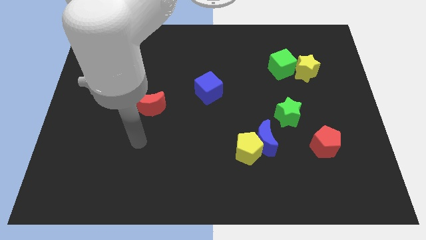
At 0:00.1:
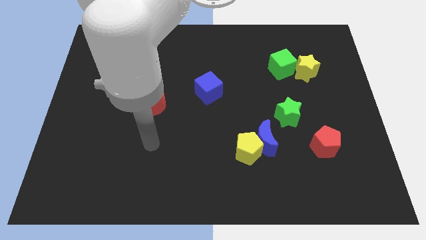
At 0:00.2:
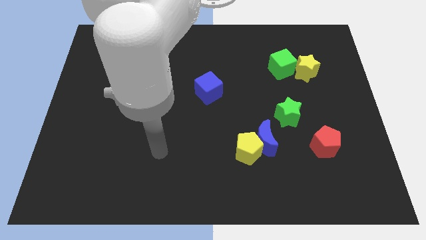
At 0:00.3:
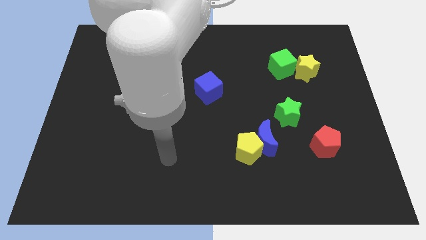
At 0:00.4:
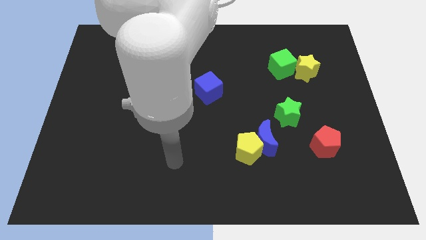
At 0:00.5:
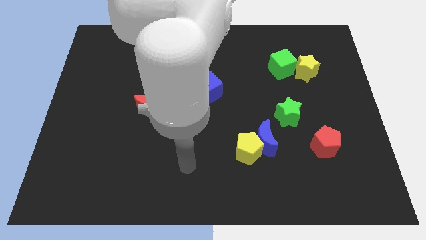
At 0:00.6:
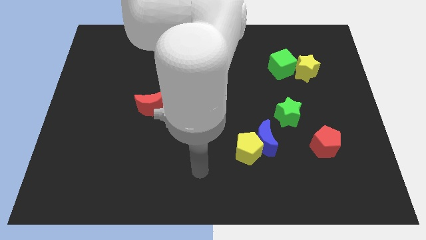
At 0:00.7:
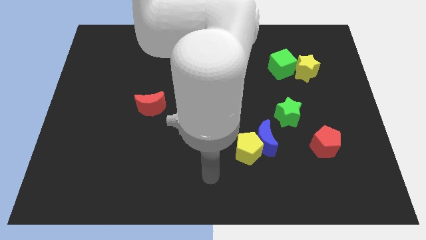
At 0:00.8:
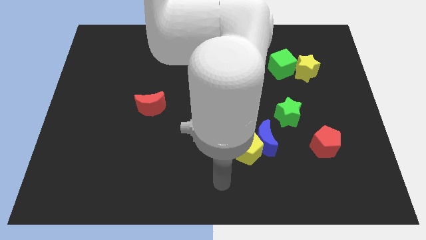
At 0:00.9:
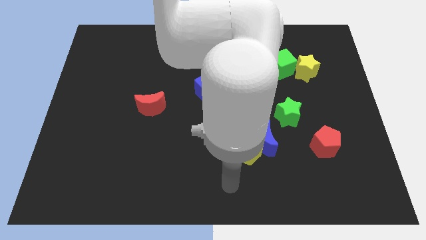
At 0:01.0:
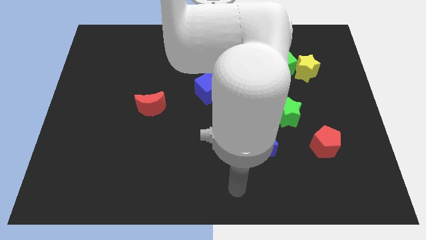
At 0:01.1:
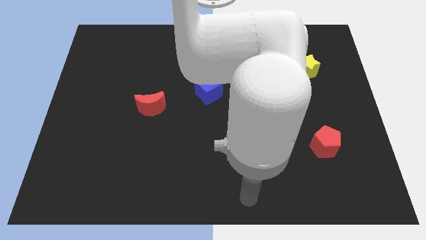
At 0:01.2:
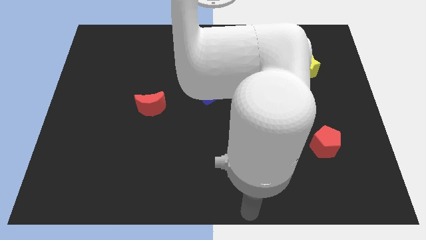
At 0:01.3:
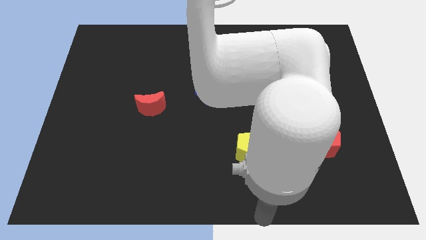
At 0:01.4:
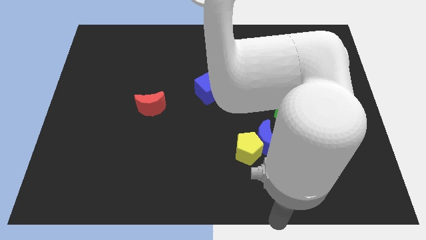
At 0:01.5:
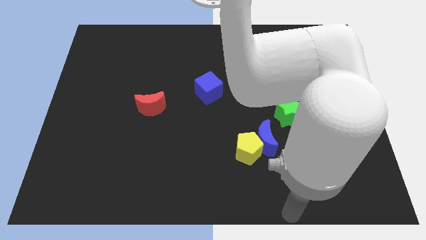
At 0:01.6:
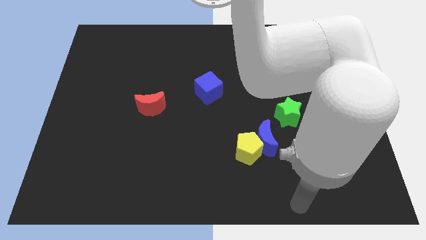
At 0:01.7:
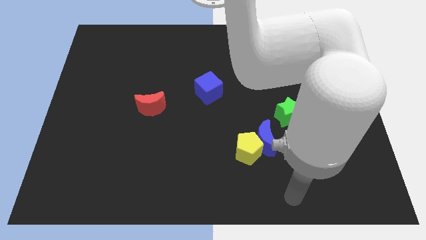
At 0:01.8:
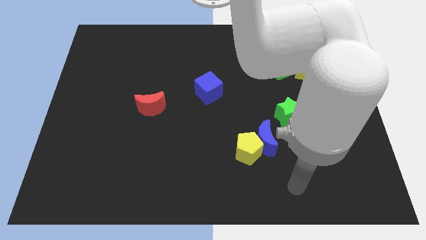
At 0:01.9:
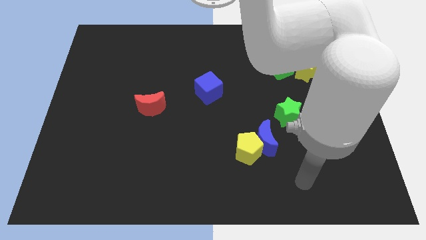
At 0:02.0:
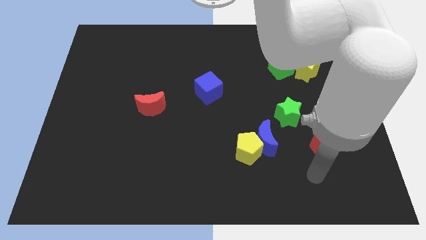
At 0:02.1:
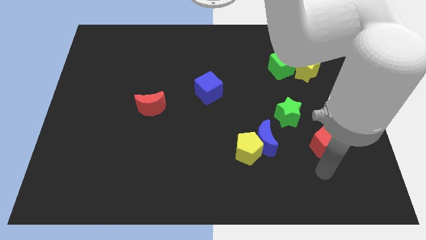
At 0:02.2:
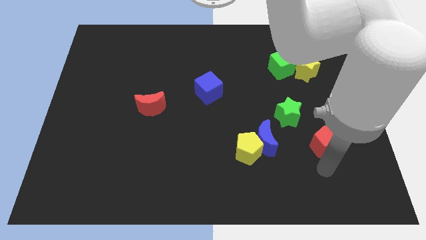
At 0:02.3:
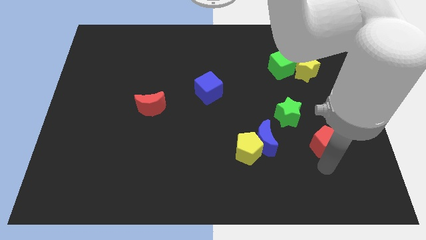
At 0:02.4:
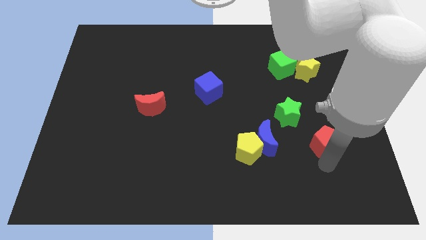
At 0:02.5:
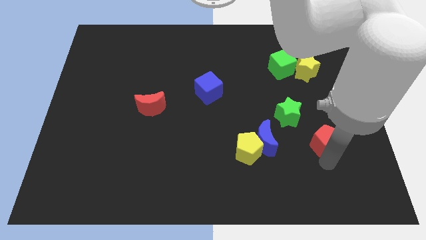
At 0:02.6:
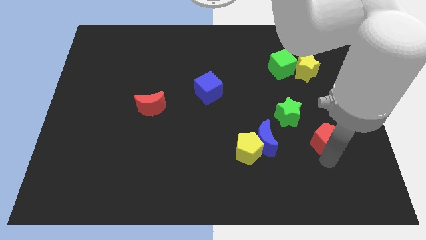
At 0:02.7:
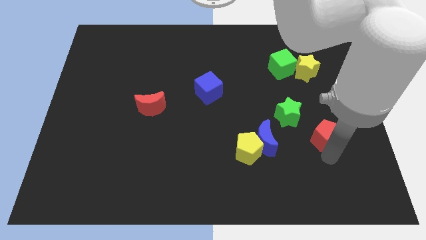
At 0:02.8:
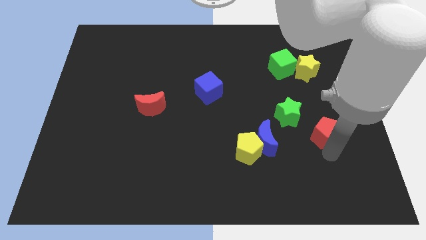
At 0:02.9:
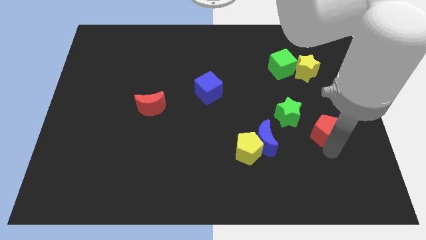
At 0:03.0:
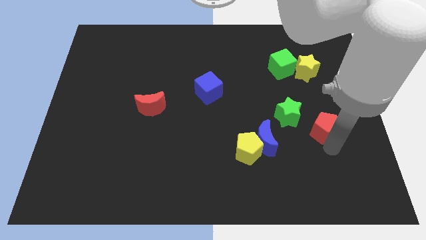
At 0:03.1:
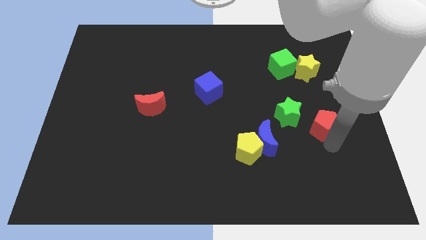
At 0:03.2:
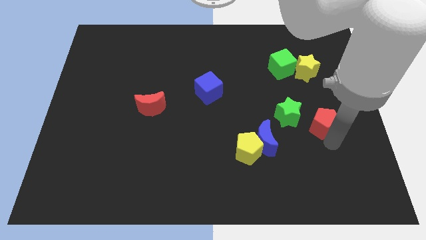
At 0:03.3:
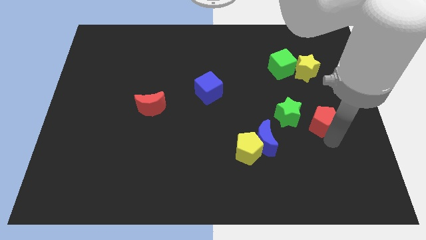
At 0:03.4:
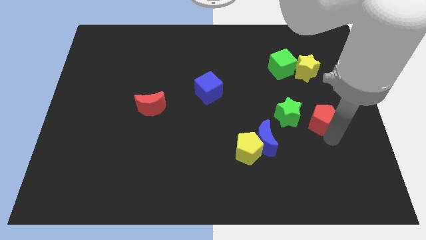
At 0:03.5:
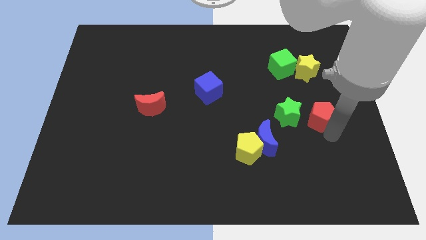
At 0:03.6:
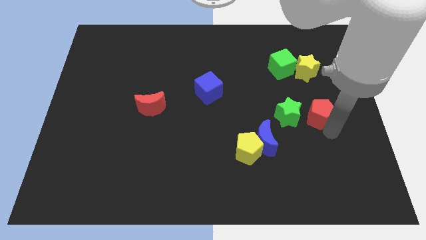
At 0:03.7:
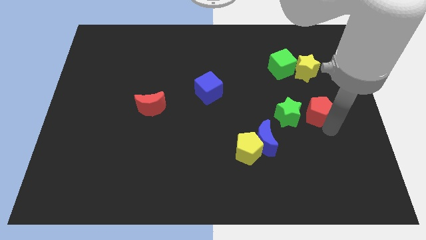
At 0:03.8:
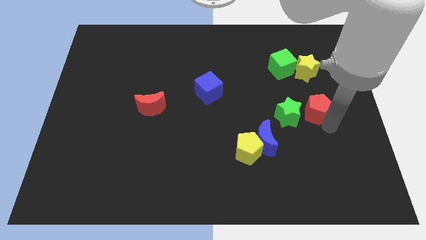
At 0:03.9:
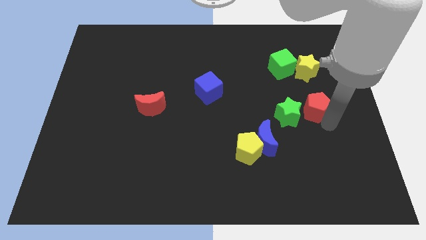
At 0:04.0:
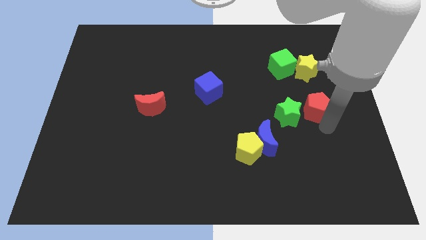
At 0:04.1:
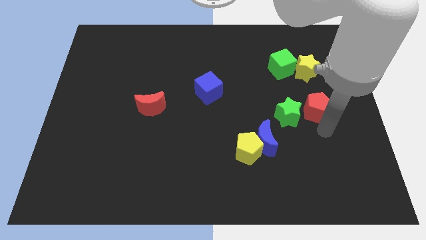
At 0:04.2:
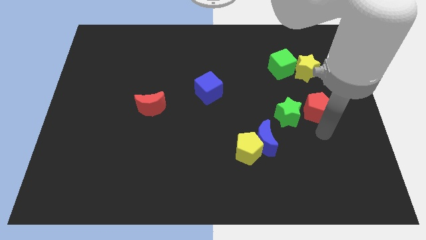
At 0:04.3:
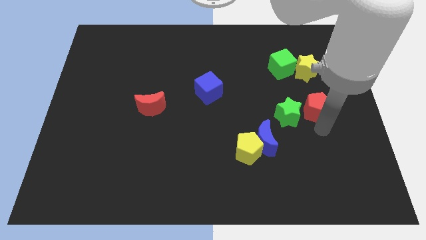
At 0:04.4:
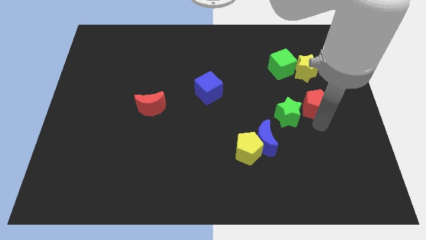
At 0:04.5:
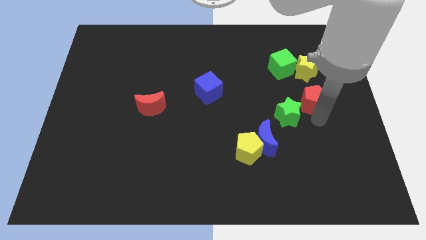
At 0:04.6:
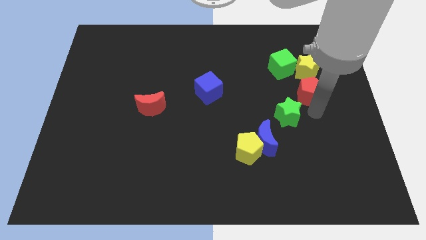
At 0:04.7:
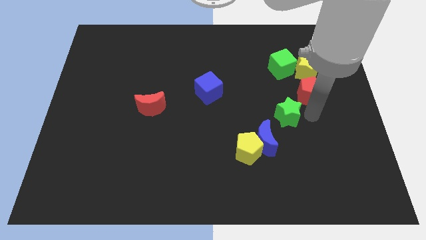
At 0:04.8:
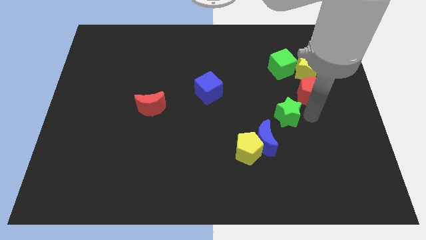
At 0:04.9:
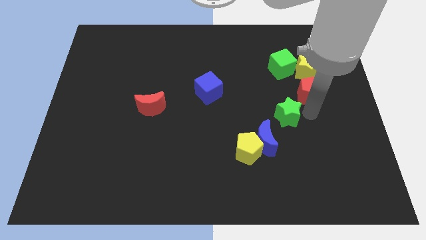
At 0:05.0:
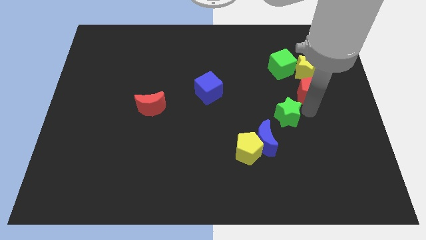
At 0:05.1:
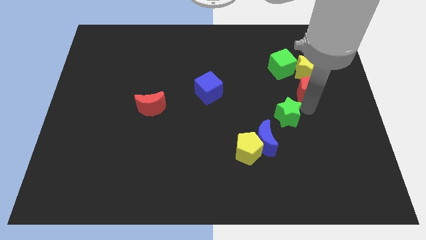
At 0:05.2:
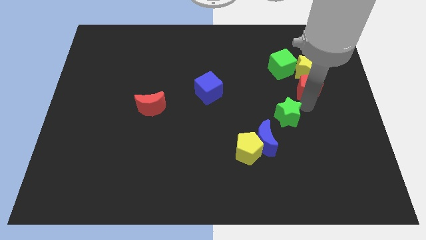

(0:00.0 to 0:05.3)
put the red pentagon next to the yellow star

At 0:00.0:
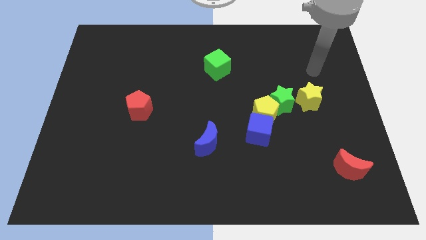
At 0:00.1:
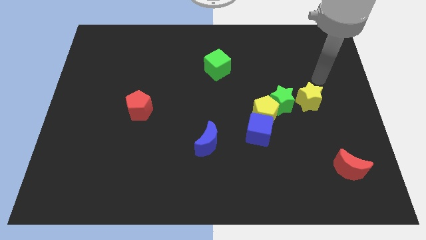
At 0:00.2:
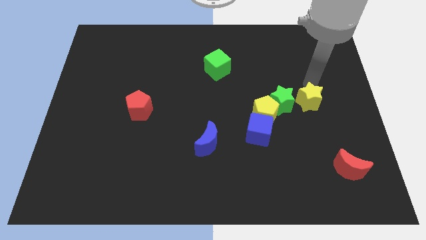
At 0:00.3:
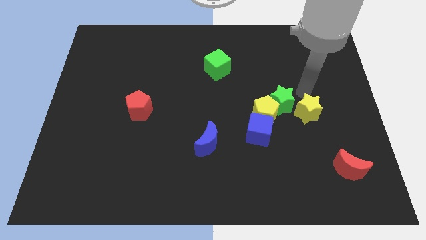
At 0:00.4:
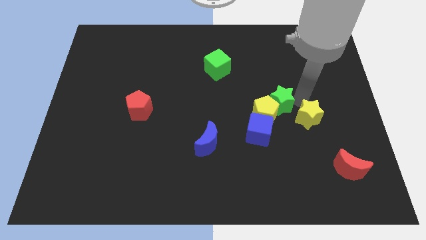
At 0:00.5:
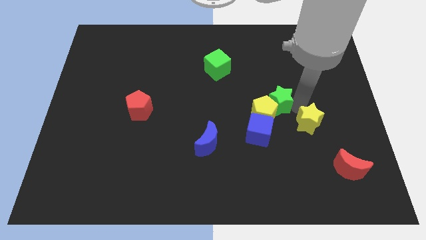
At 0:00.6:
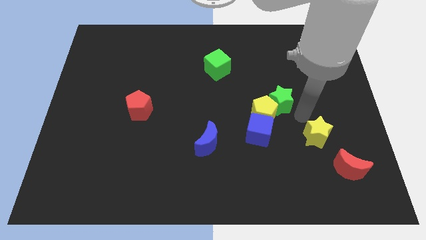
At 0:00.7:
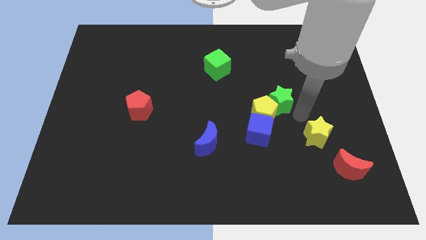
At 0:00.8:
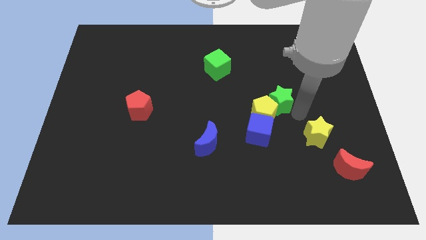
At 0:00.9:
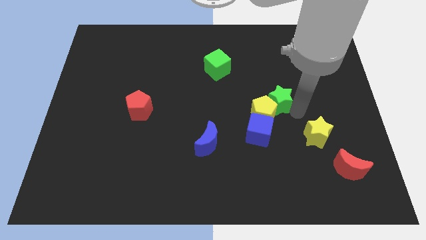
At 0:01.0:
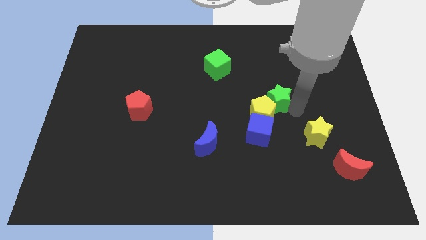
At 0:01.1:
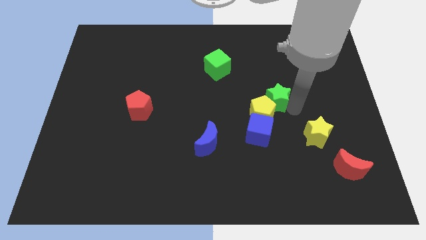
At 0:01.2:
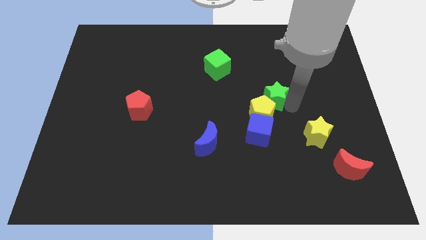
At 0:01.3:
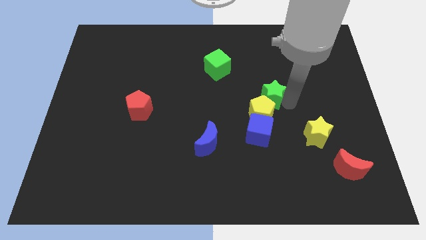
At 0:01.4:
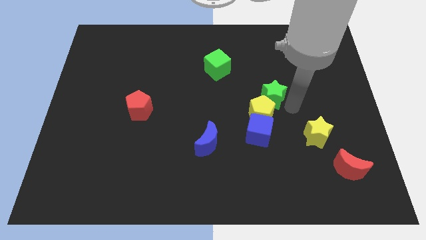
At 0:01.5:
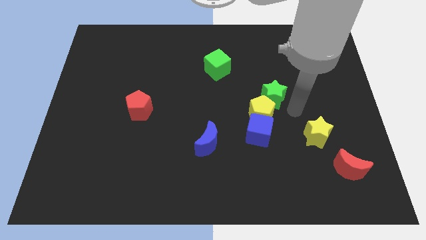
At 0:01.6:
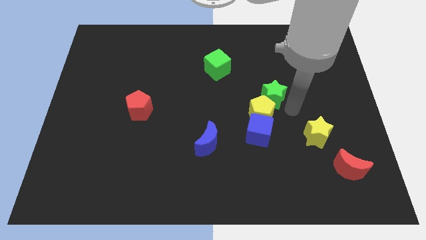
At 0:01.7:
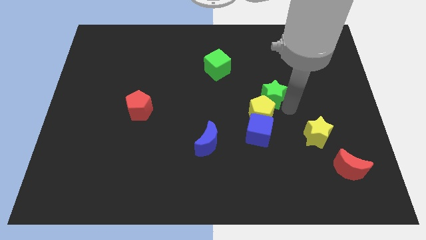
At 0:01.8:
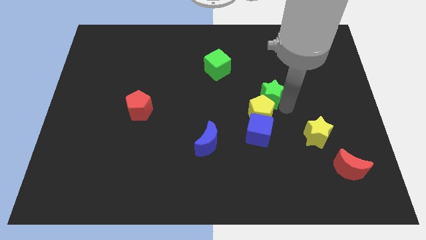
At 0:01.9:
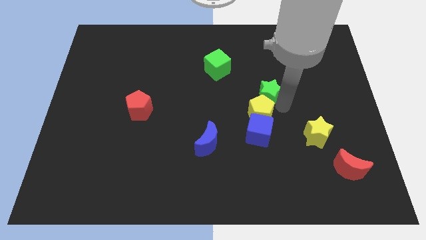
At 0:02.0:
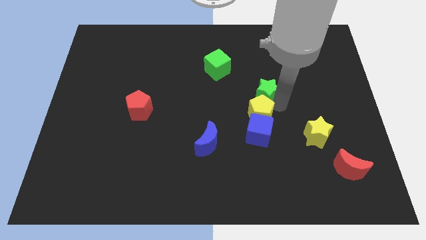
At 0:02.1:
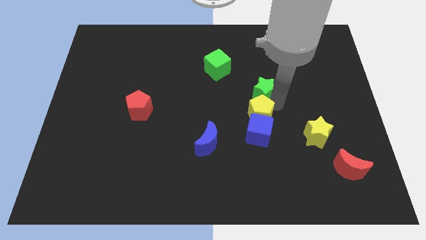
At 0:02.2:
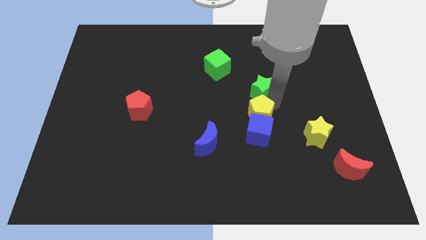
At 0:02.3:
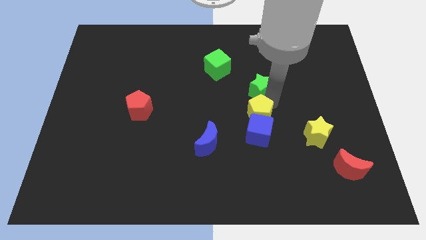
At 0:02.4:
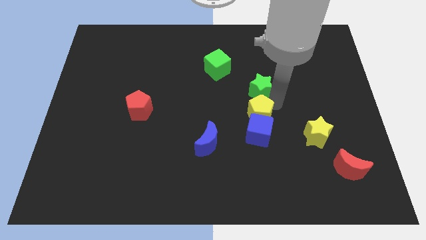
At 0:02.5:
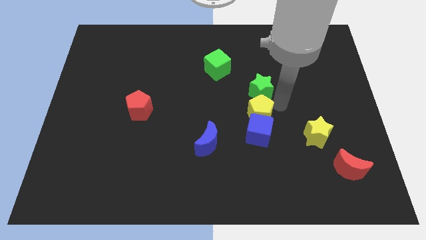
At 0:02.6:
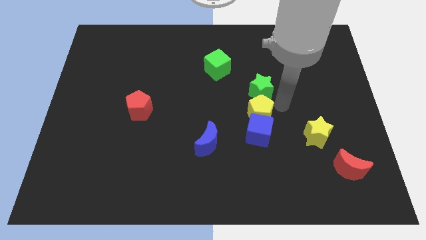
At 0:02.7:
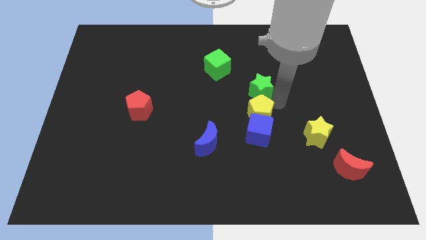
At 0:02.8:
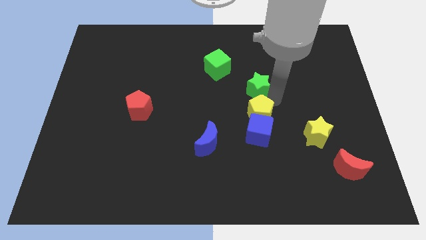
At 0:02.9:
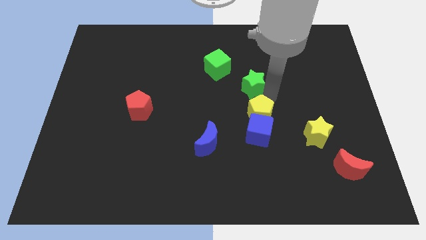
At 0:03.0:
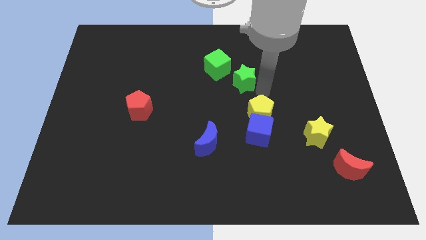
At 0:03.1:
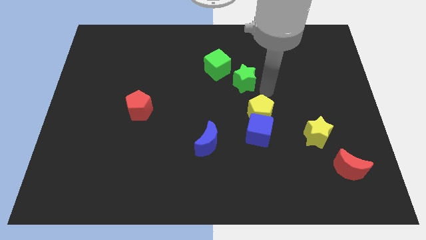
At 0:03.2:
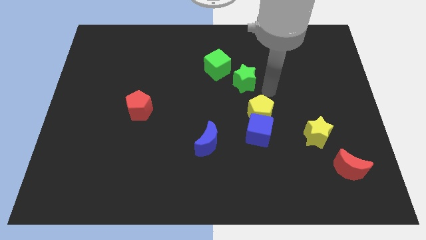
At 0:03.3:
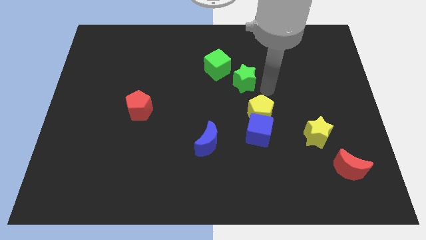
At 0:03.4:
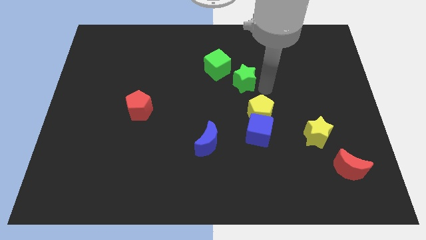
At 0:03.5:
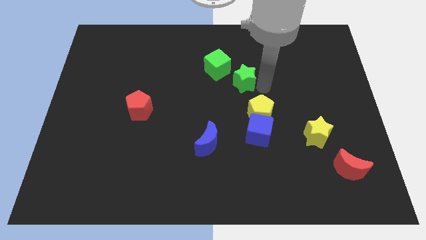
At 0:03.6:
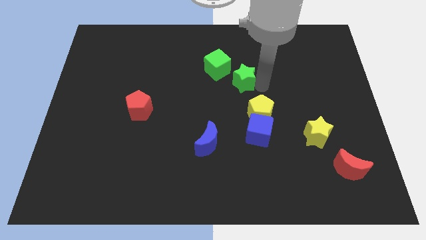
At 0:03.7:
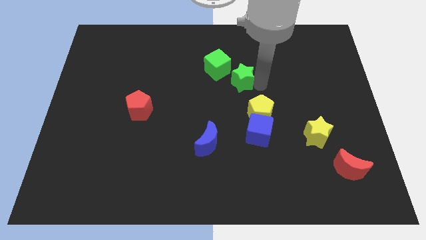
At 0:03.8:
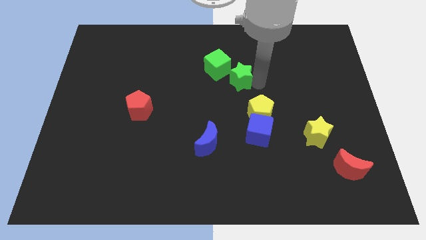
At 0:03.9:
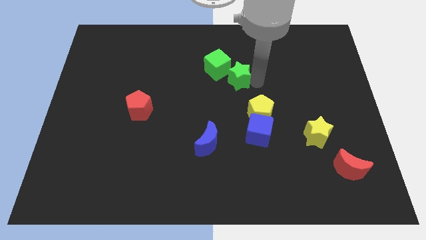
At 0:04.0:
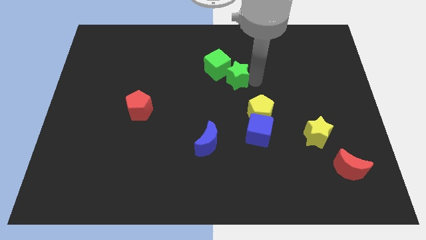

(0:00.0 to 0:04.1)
push the green star towards the green cube
